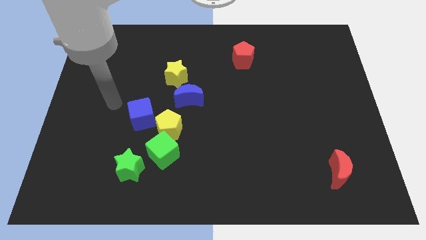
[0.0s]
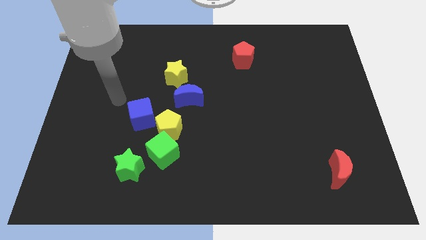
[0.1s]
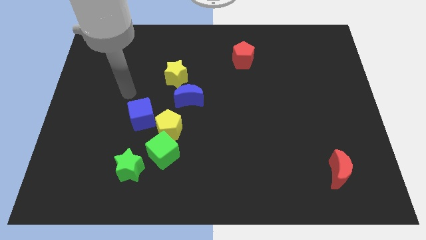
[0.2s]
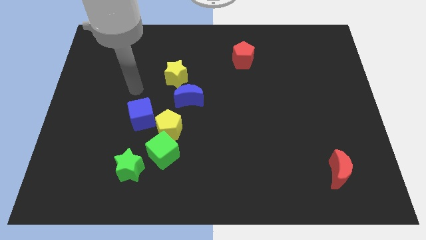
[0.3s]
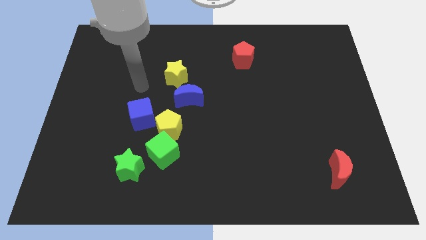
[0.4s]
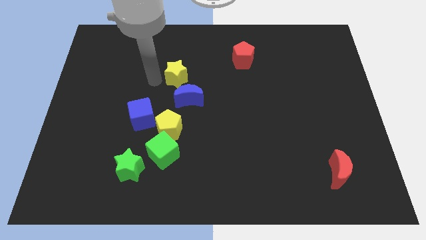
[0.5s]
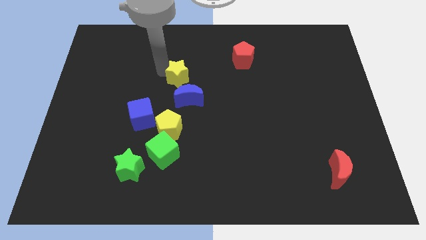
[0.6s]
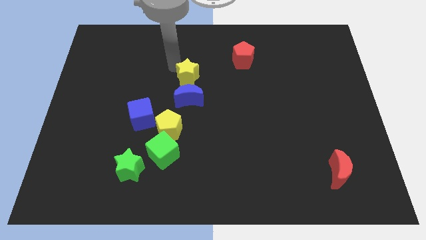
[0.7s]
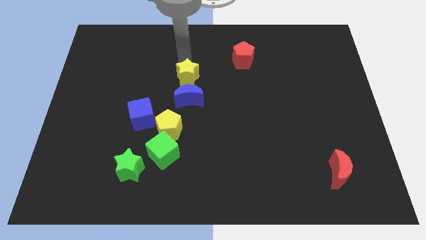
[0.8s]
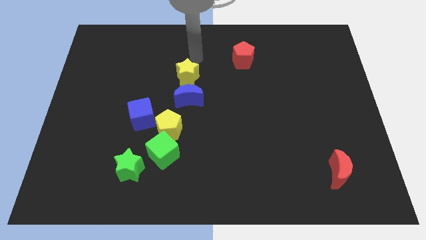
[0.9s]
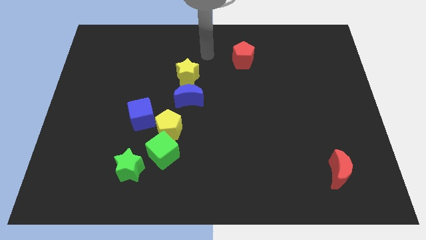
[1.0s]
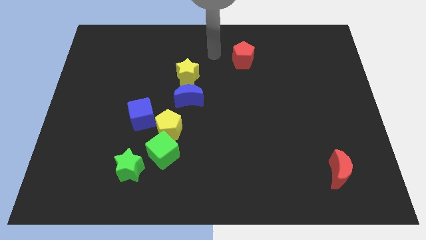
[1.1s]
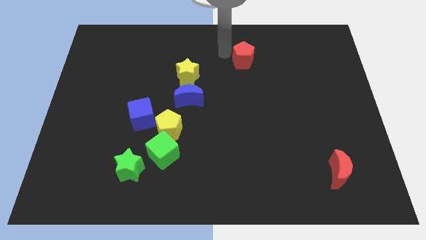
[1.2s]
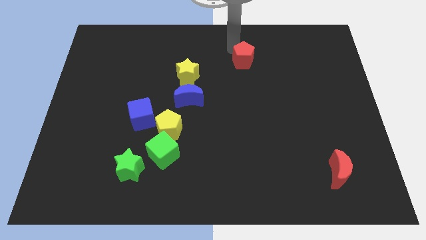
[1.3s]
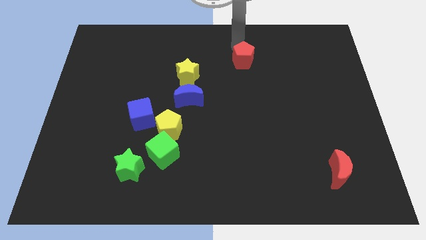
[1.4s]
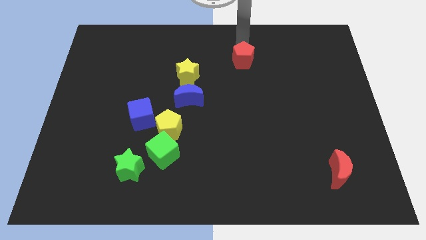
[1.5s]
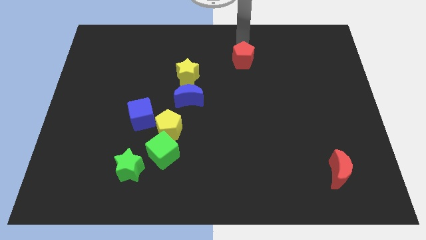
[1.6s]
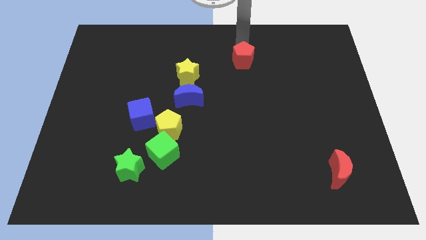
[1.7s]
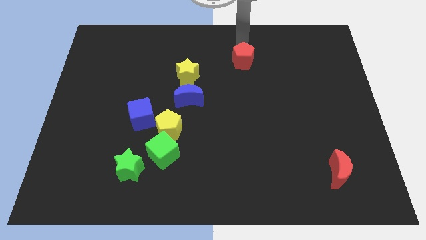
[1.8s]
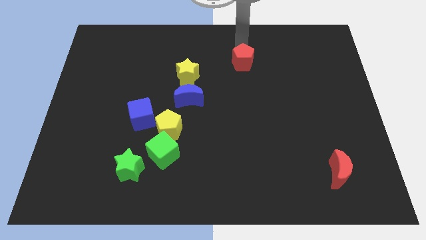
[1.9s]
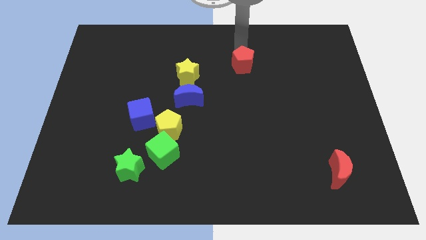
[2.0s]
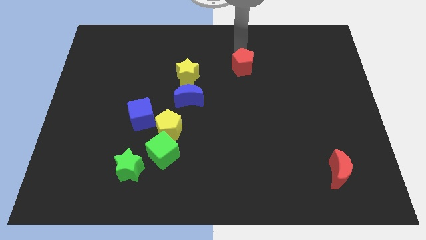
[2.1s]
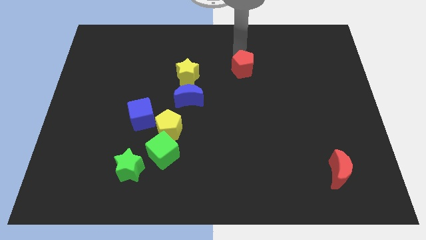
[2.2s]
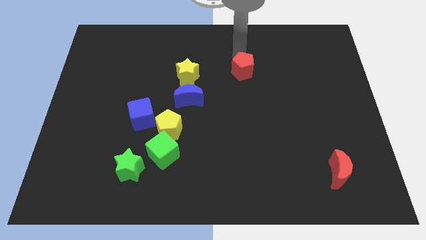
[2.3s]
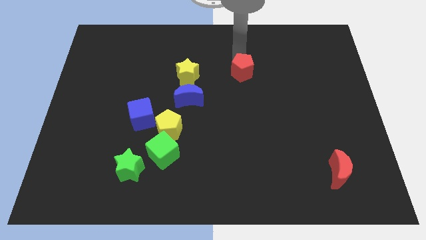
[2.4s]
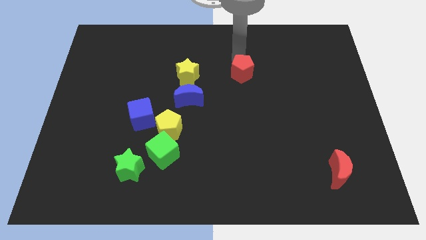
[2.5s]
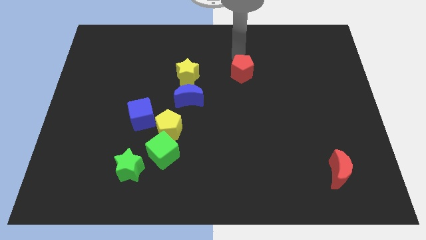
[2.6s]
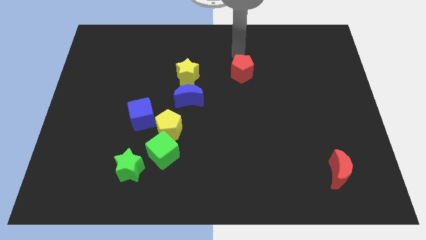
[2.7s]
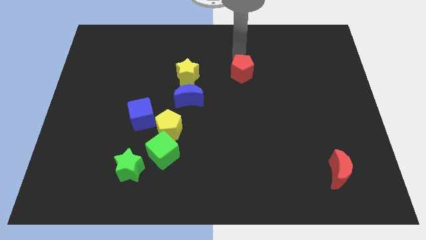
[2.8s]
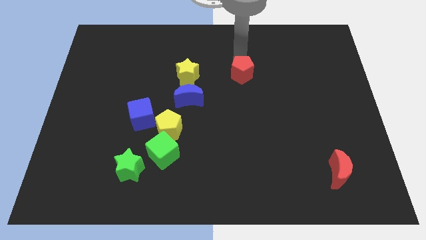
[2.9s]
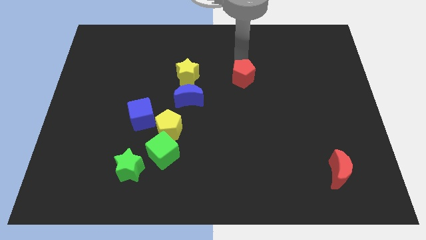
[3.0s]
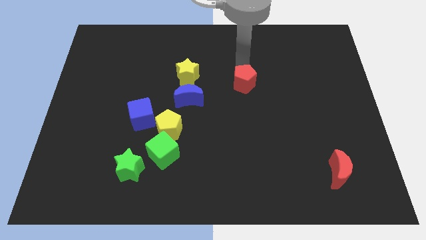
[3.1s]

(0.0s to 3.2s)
slightly slide the red pentagon downwards

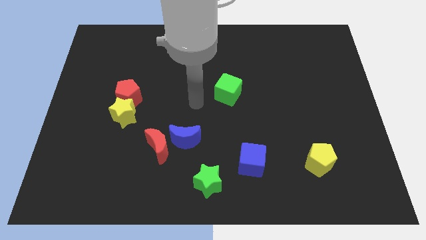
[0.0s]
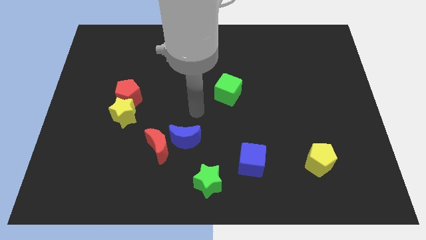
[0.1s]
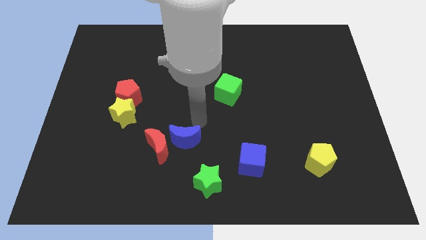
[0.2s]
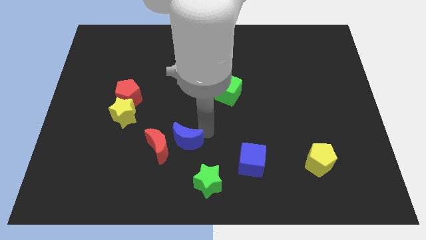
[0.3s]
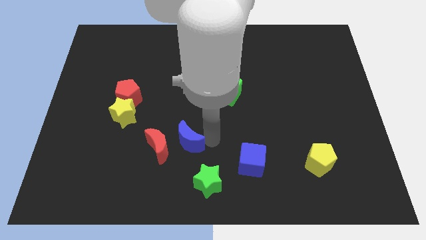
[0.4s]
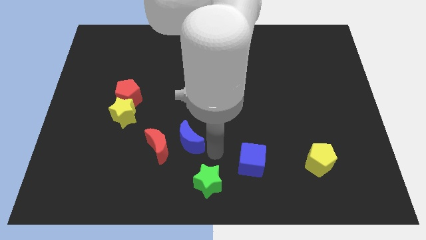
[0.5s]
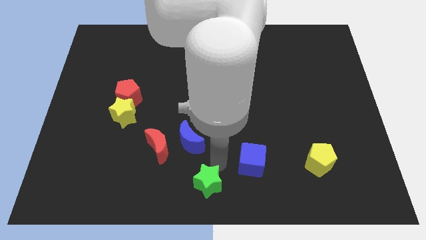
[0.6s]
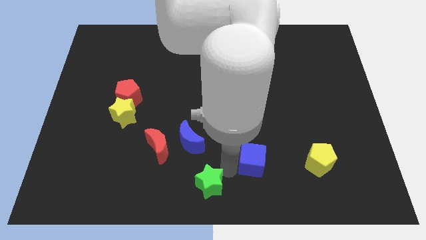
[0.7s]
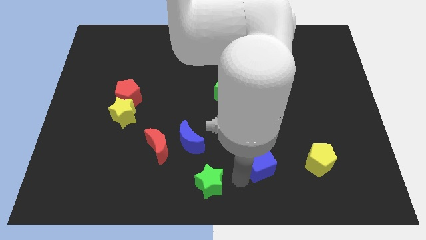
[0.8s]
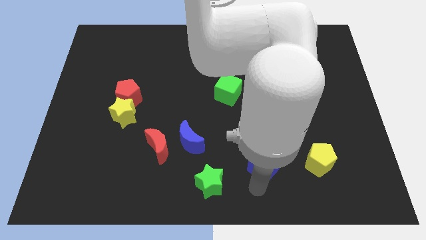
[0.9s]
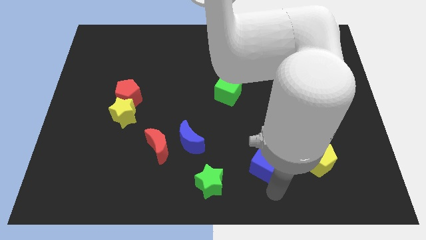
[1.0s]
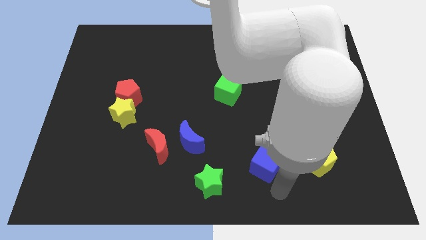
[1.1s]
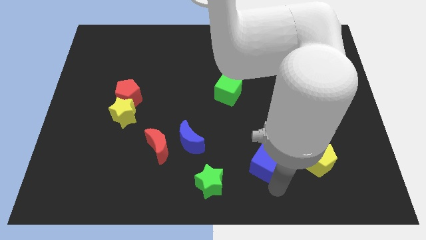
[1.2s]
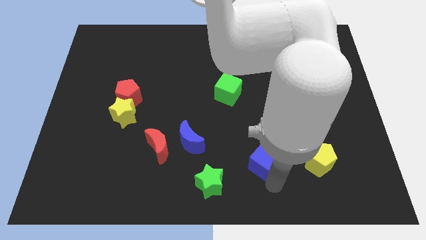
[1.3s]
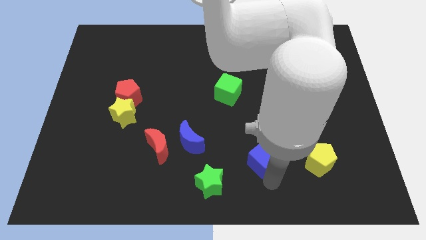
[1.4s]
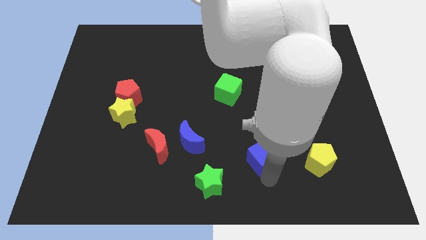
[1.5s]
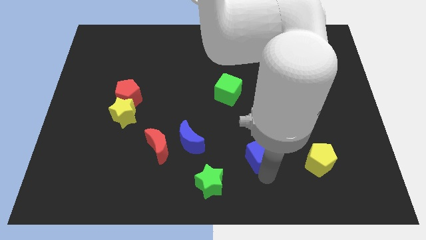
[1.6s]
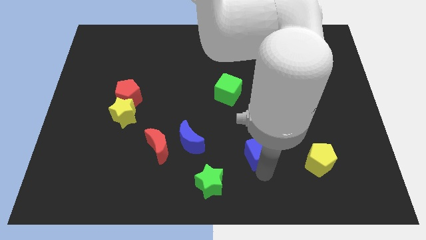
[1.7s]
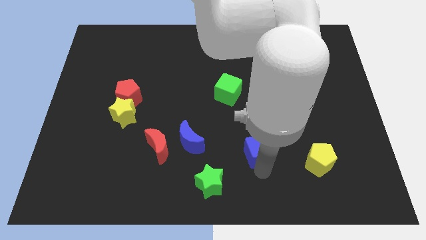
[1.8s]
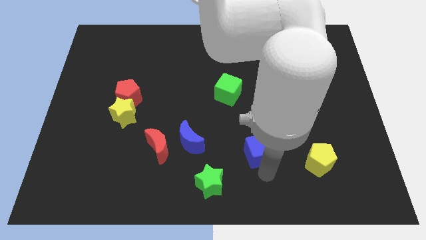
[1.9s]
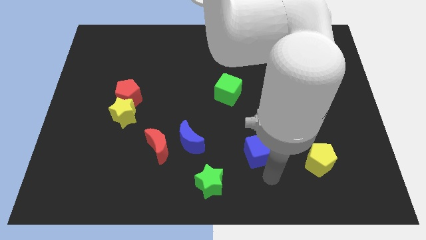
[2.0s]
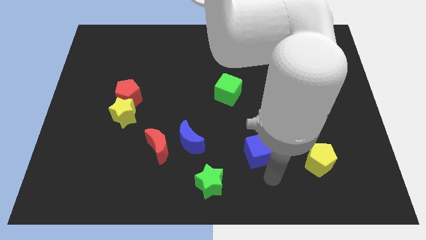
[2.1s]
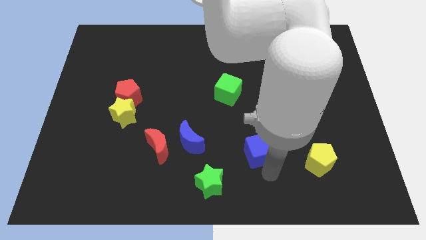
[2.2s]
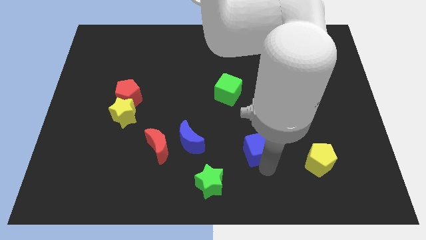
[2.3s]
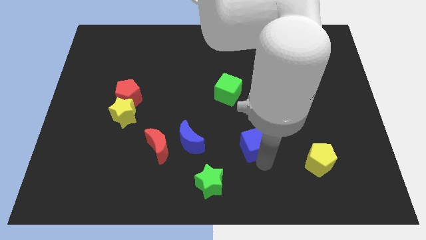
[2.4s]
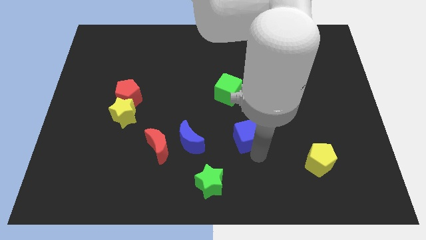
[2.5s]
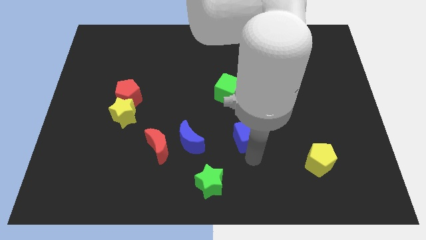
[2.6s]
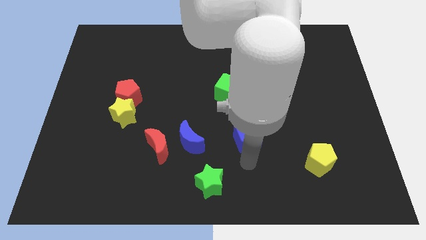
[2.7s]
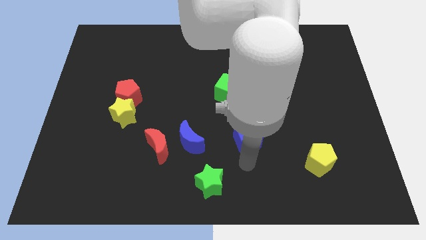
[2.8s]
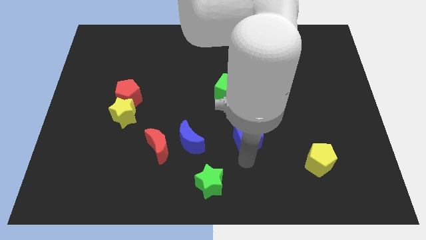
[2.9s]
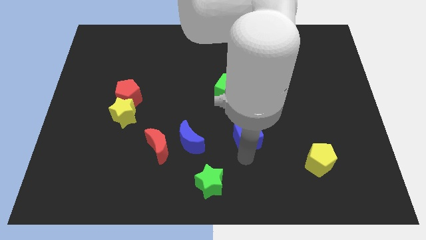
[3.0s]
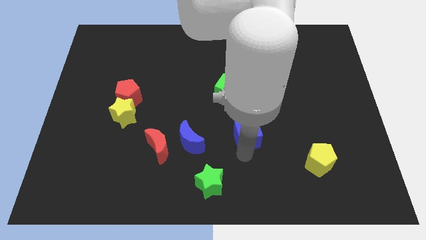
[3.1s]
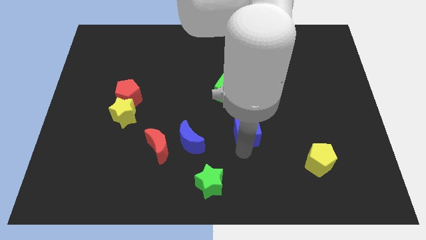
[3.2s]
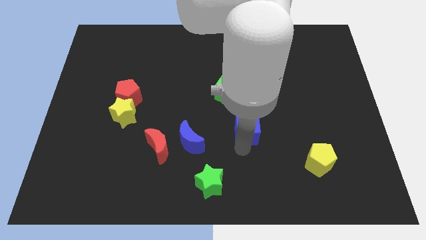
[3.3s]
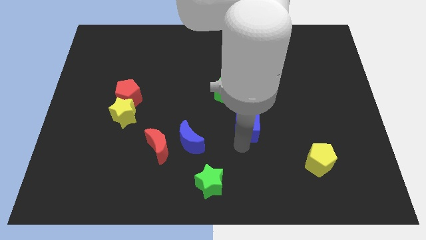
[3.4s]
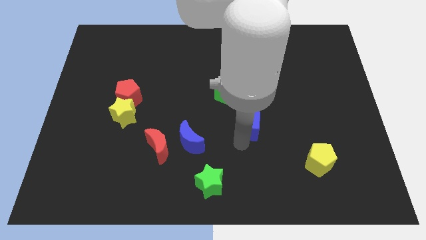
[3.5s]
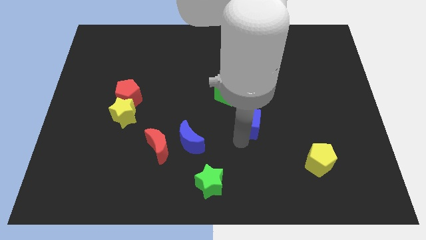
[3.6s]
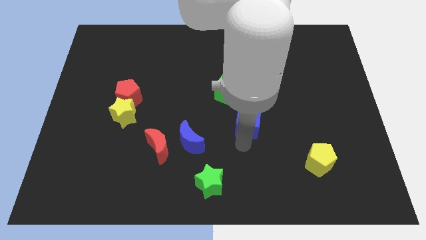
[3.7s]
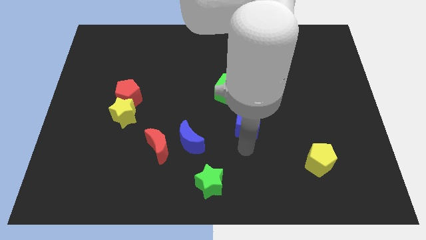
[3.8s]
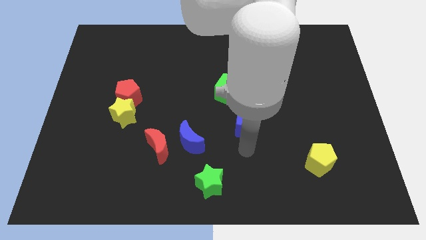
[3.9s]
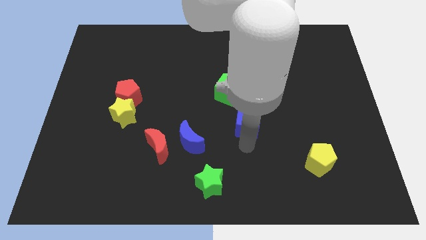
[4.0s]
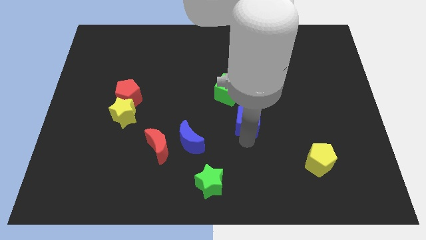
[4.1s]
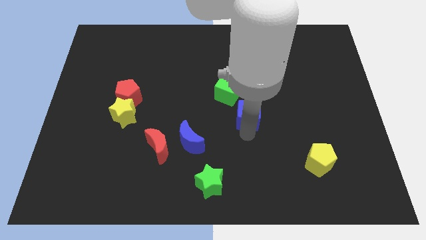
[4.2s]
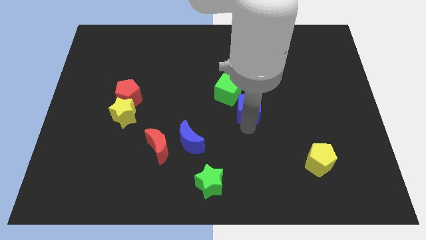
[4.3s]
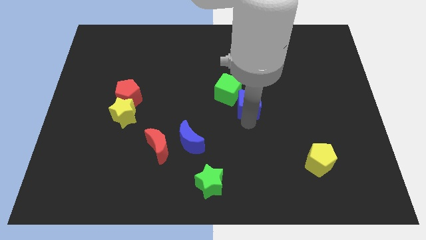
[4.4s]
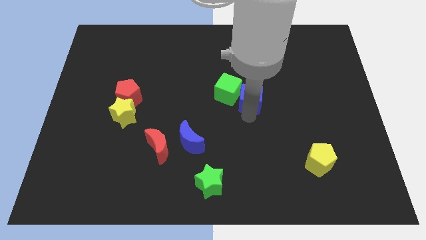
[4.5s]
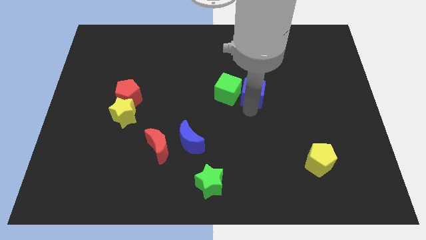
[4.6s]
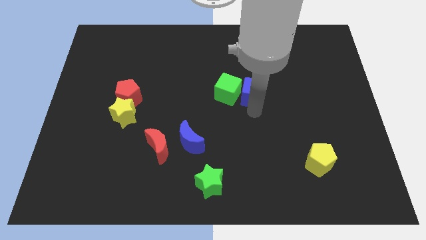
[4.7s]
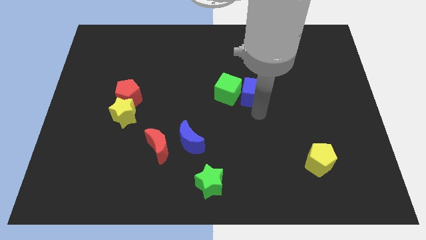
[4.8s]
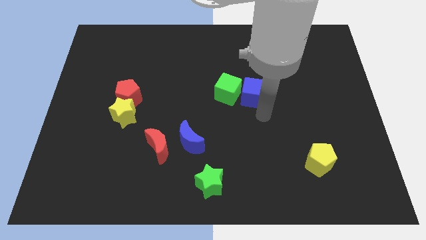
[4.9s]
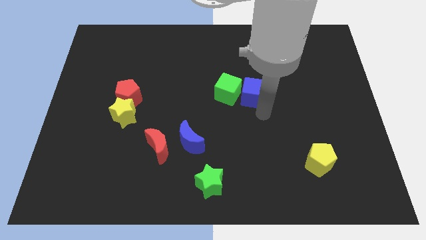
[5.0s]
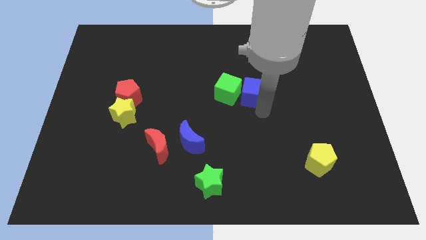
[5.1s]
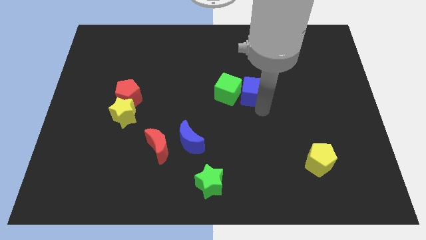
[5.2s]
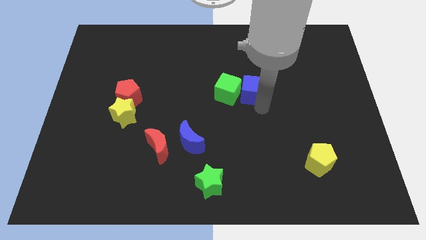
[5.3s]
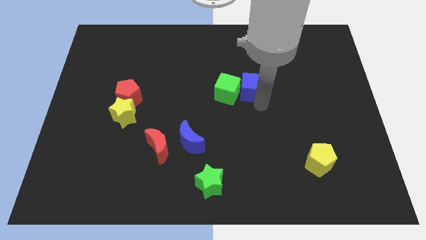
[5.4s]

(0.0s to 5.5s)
slide the blue cube up
